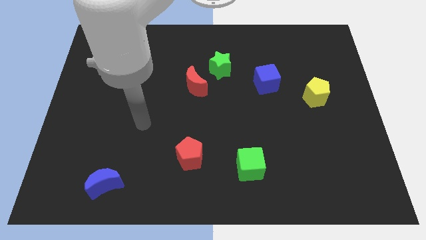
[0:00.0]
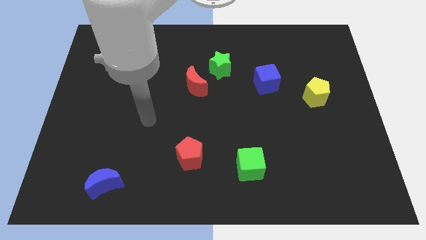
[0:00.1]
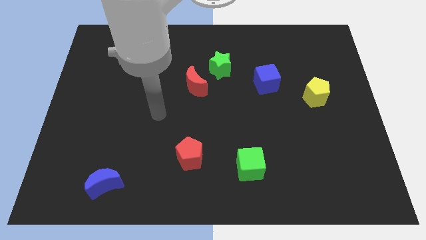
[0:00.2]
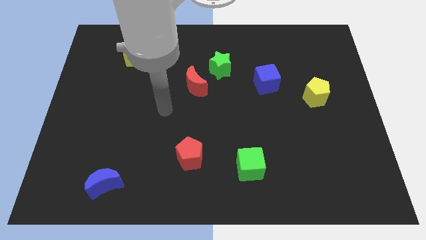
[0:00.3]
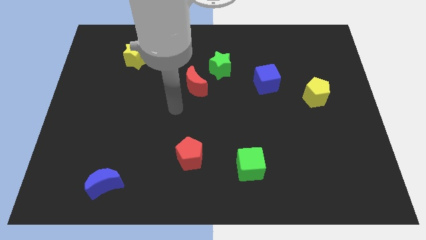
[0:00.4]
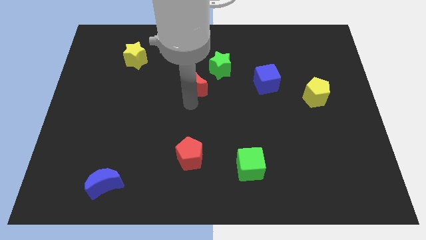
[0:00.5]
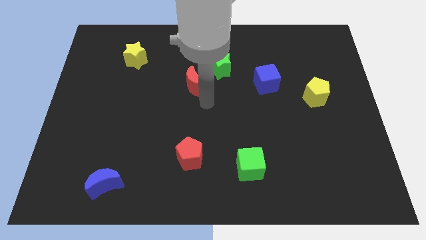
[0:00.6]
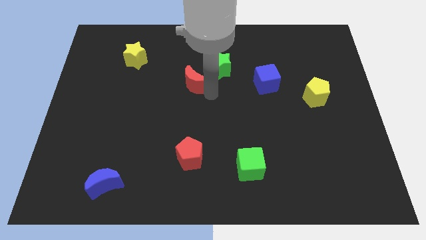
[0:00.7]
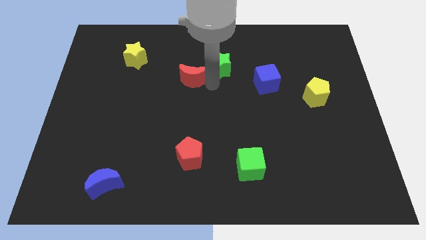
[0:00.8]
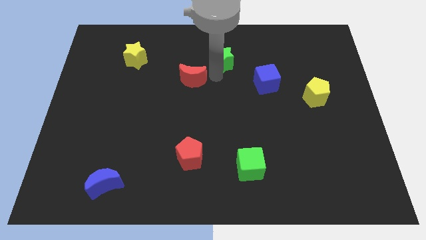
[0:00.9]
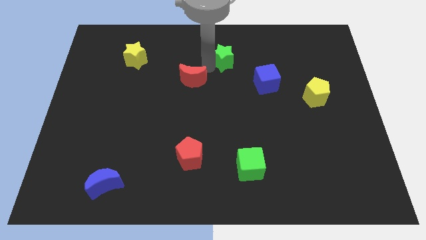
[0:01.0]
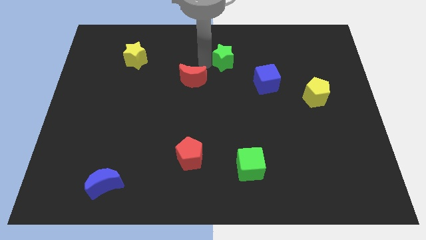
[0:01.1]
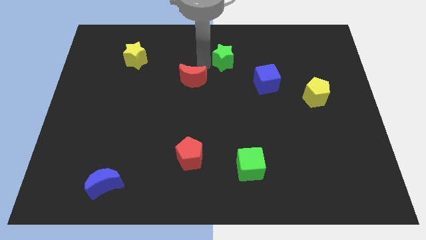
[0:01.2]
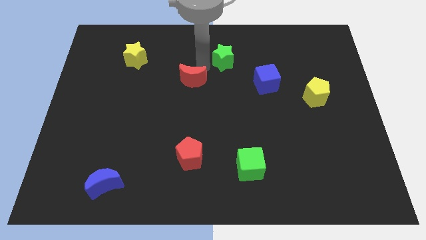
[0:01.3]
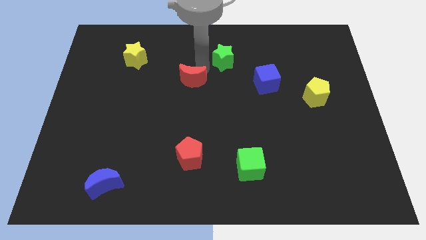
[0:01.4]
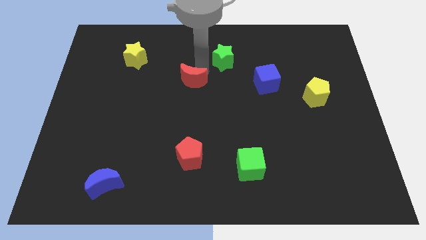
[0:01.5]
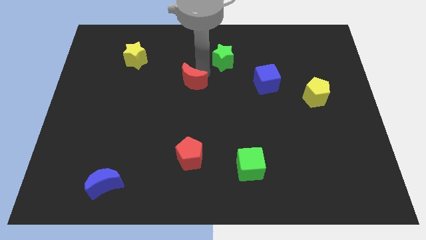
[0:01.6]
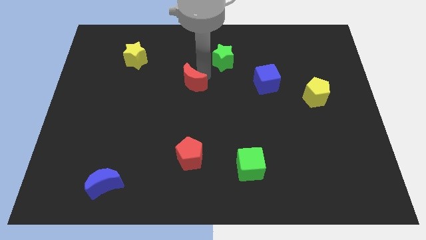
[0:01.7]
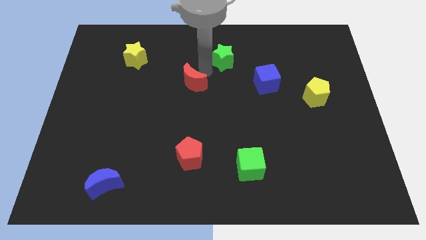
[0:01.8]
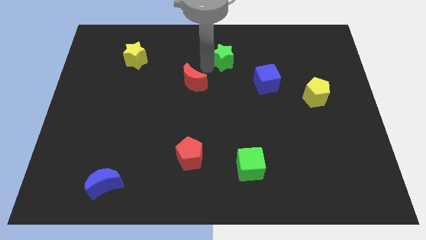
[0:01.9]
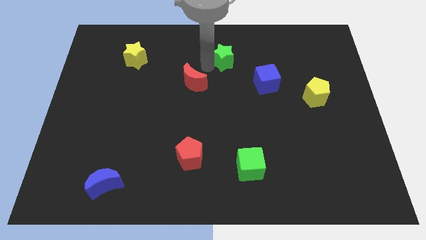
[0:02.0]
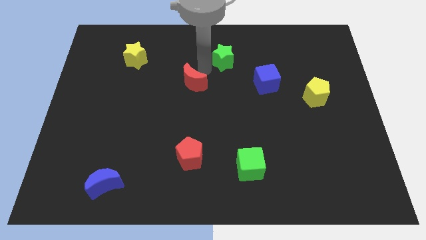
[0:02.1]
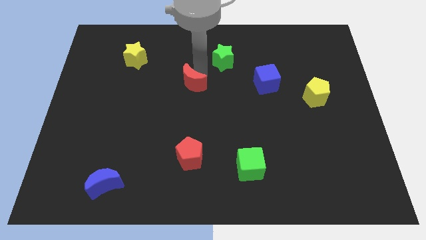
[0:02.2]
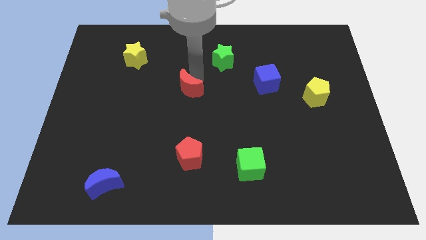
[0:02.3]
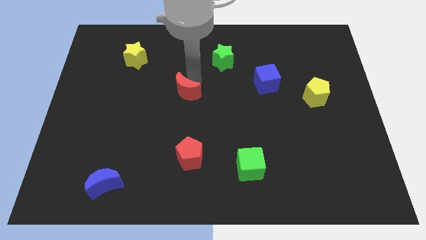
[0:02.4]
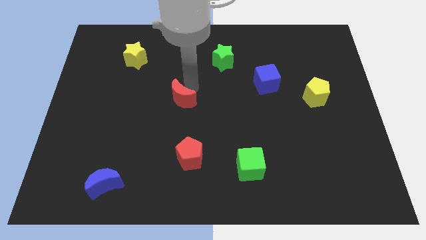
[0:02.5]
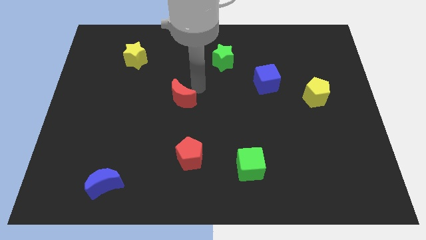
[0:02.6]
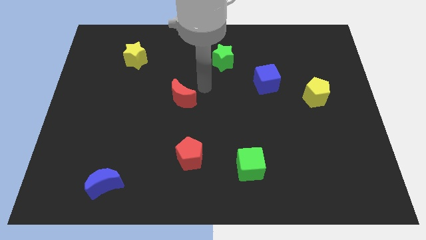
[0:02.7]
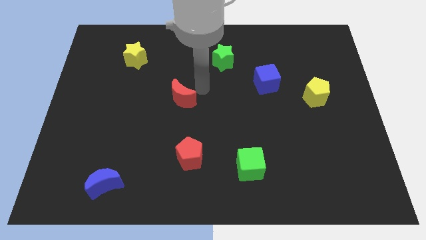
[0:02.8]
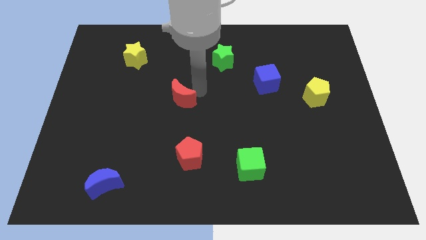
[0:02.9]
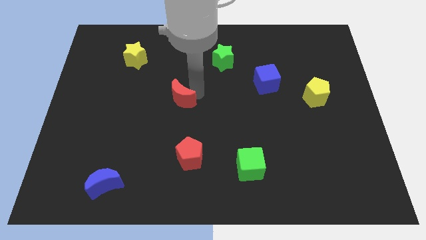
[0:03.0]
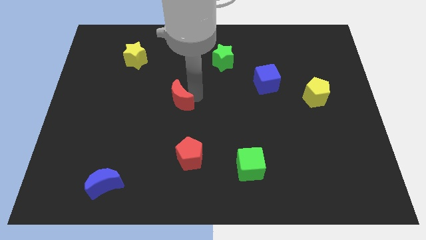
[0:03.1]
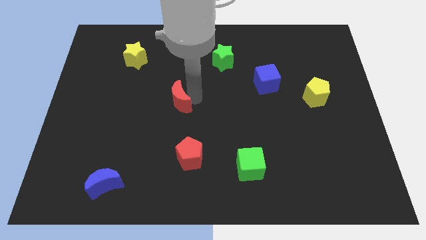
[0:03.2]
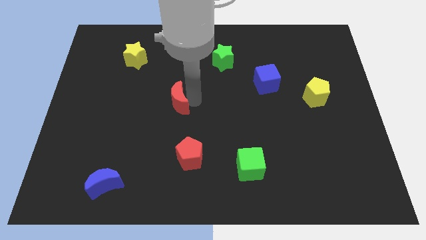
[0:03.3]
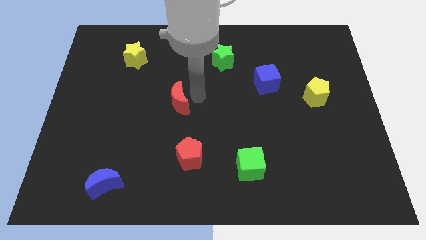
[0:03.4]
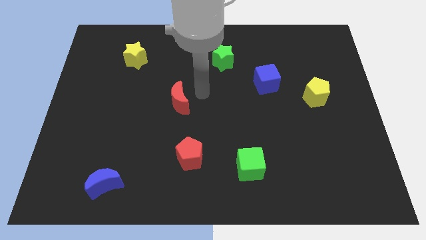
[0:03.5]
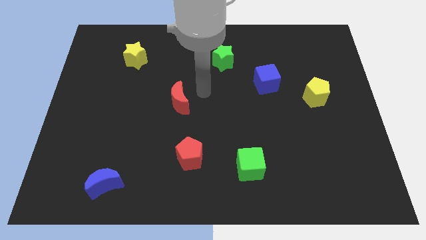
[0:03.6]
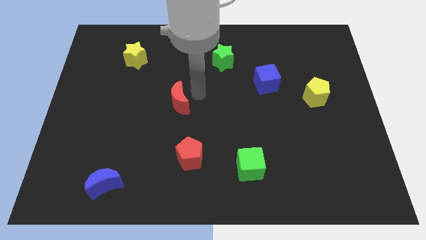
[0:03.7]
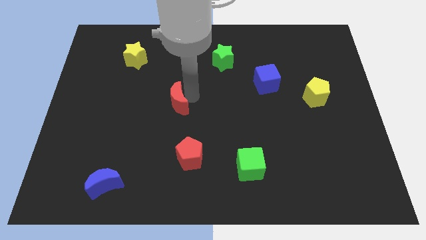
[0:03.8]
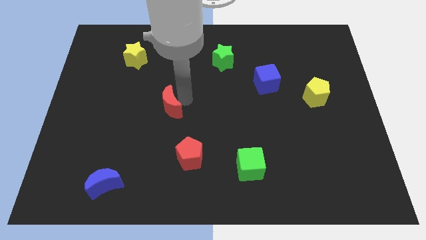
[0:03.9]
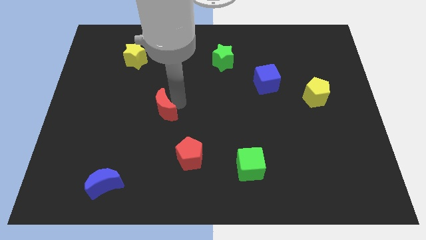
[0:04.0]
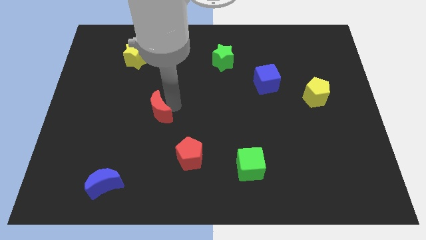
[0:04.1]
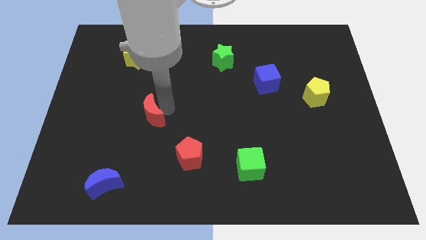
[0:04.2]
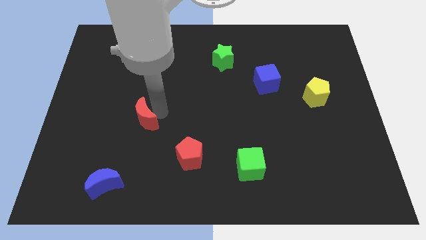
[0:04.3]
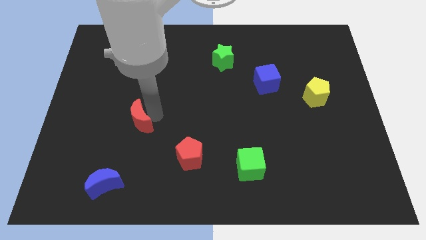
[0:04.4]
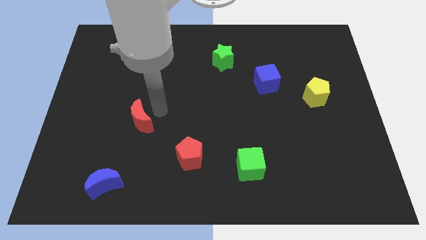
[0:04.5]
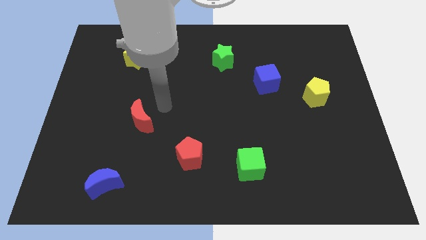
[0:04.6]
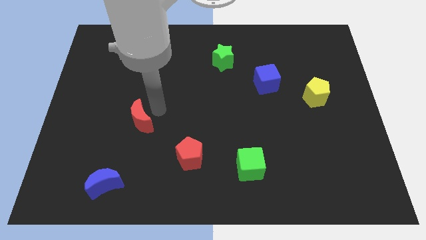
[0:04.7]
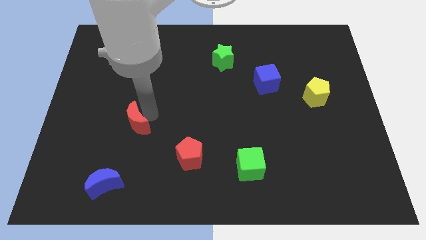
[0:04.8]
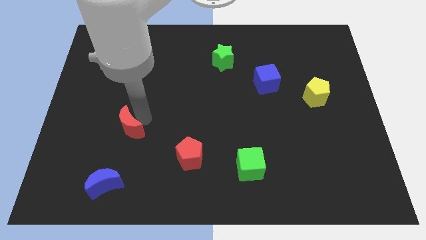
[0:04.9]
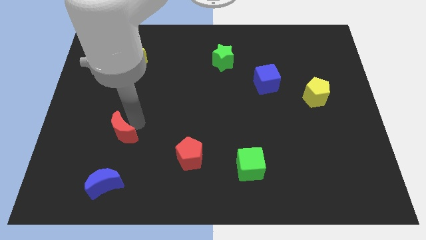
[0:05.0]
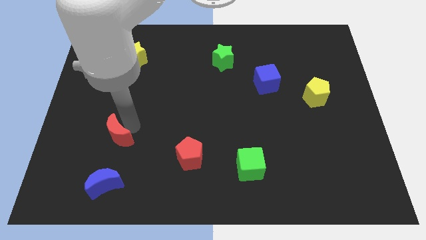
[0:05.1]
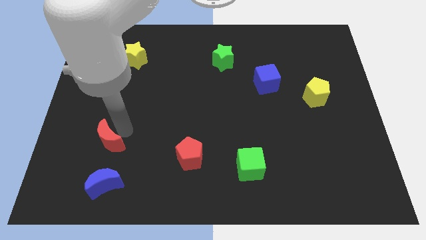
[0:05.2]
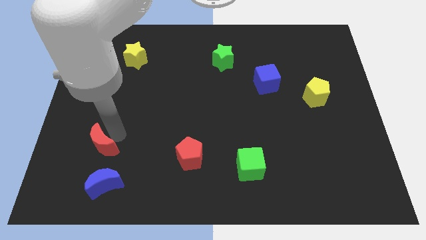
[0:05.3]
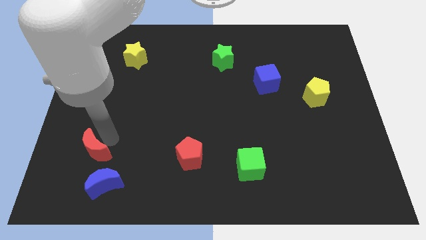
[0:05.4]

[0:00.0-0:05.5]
move the red moon to the top left side of the blue moon

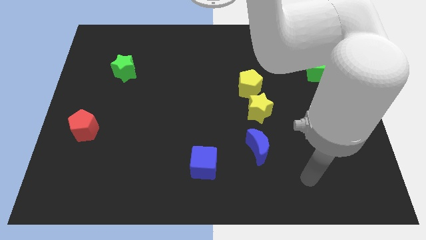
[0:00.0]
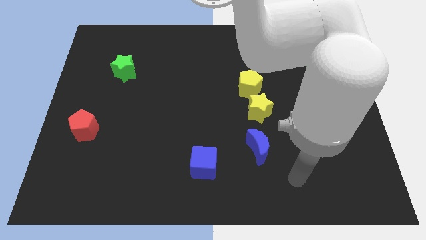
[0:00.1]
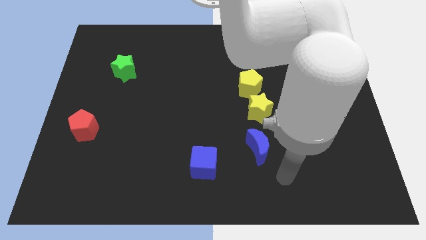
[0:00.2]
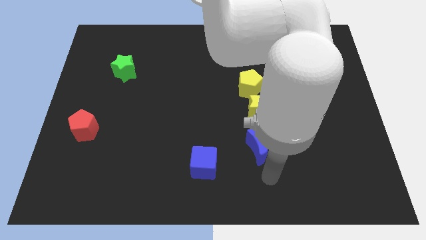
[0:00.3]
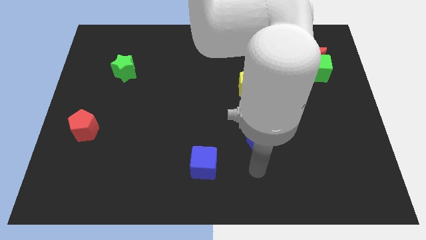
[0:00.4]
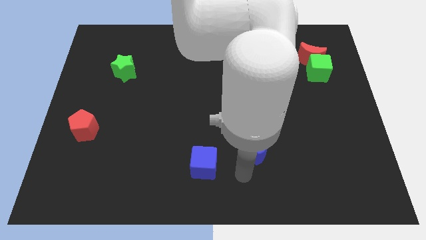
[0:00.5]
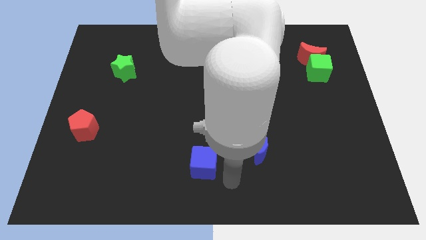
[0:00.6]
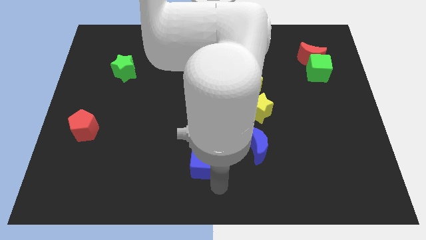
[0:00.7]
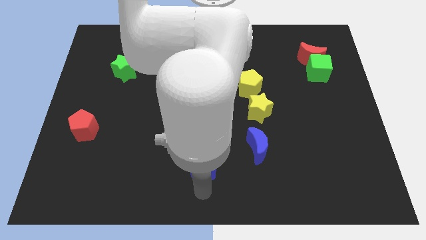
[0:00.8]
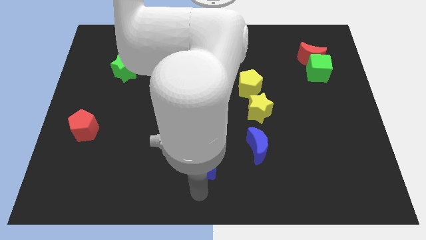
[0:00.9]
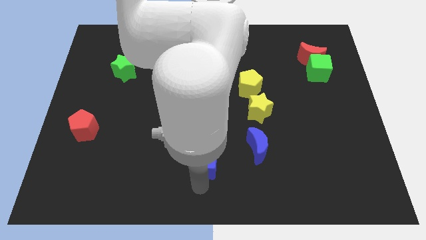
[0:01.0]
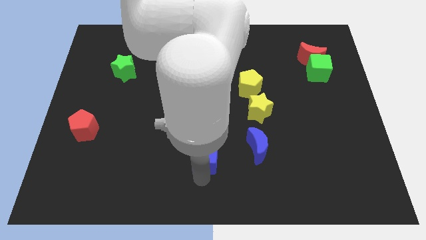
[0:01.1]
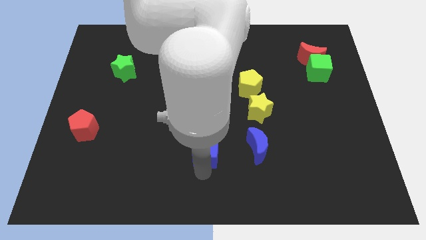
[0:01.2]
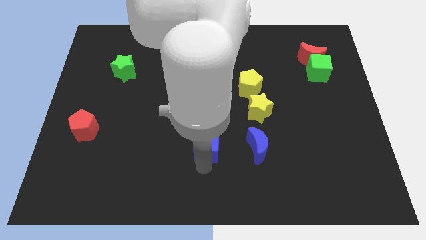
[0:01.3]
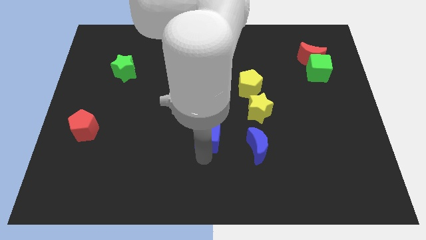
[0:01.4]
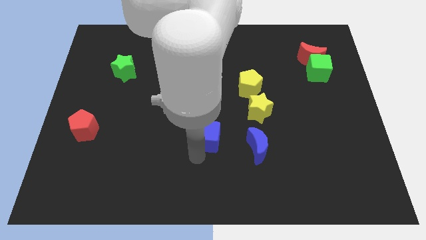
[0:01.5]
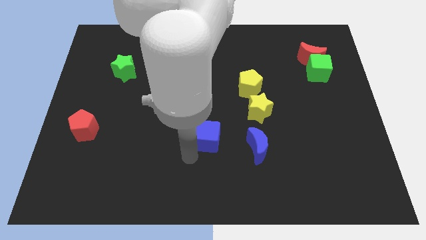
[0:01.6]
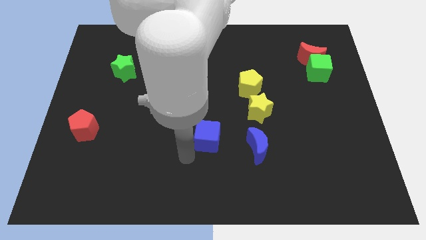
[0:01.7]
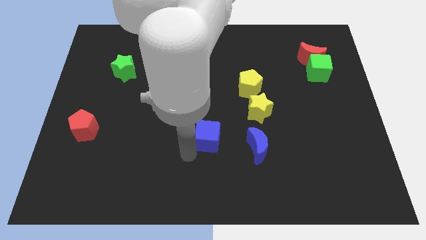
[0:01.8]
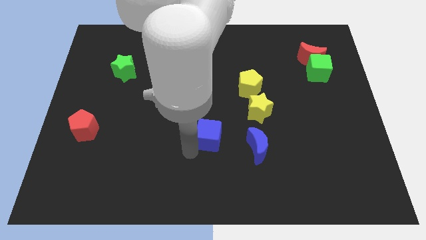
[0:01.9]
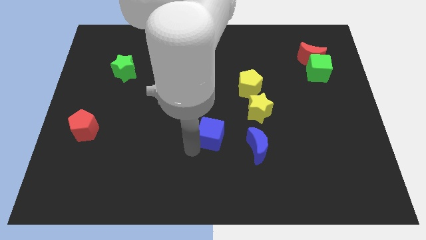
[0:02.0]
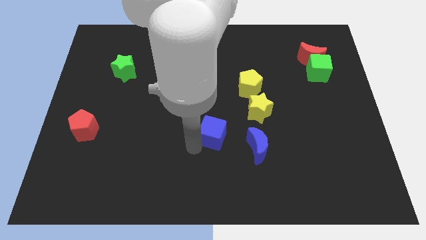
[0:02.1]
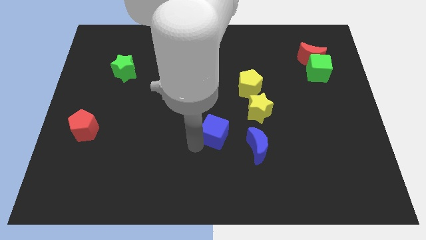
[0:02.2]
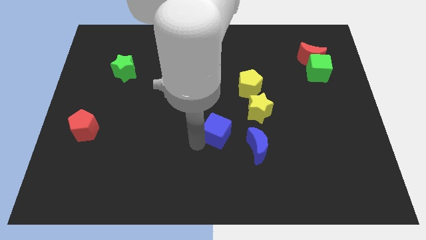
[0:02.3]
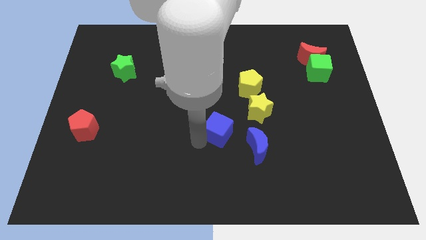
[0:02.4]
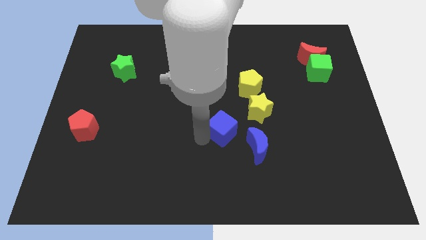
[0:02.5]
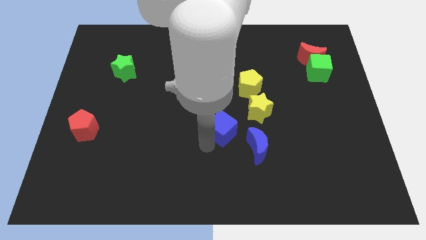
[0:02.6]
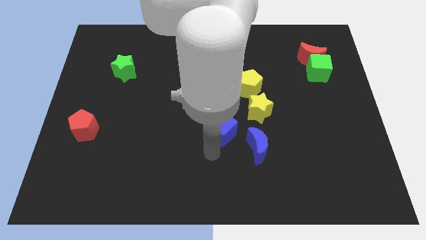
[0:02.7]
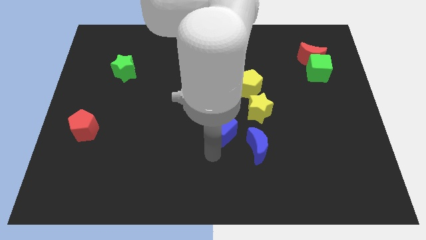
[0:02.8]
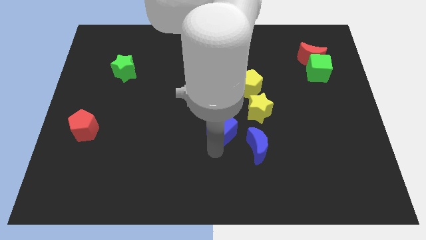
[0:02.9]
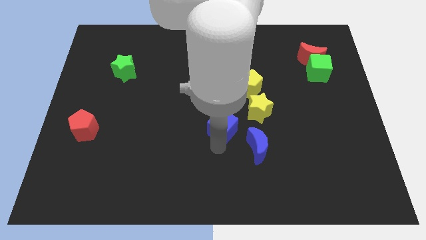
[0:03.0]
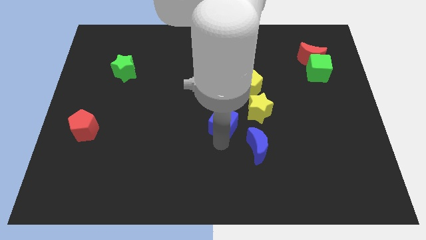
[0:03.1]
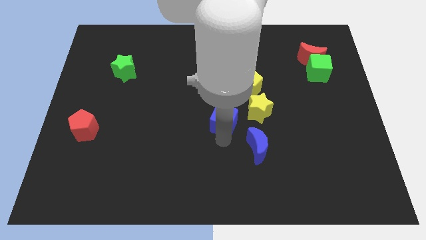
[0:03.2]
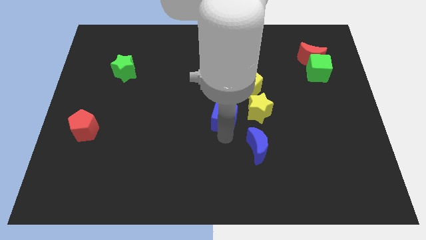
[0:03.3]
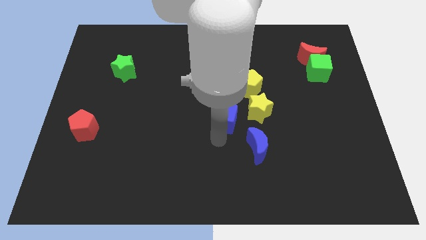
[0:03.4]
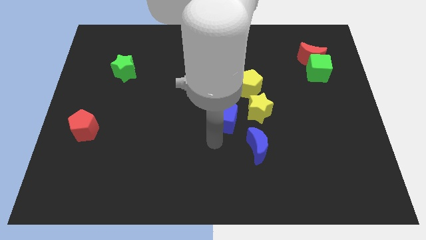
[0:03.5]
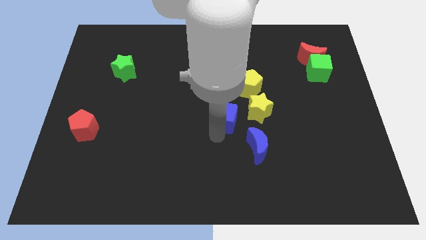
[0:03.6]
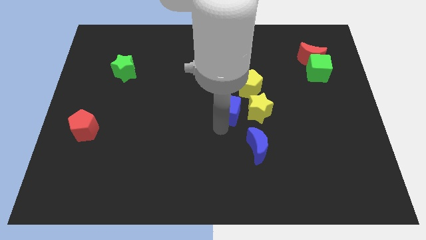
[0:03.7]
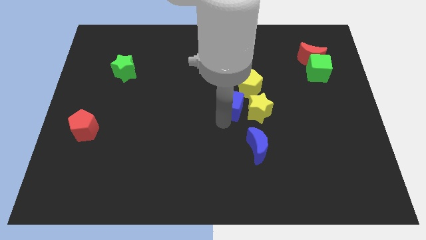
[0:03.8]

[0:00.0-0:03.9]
slide the blue cube to the top left of the yellow star
